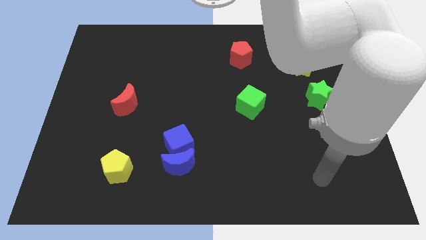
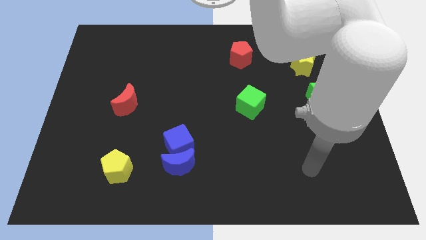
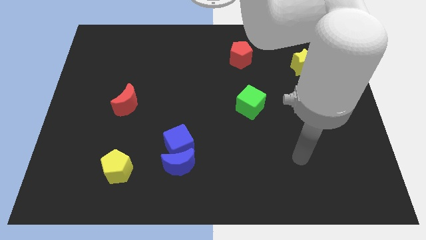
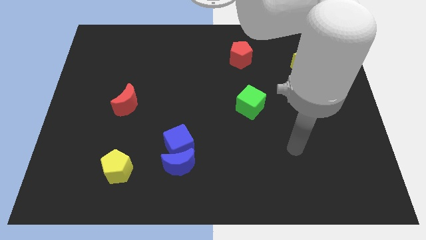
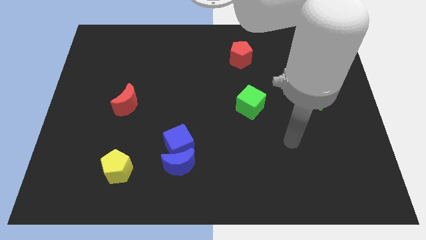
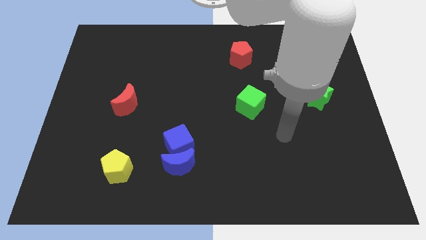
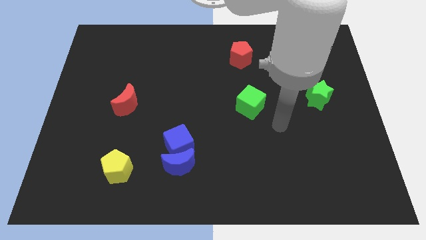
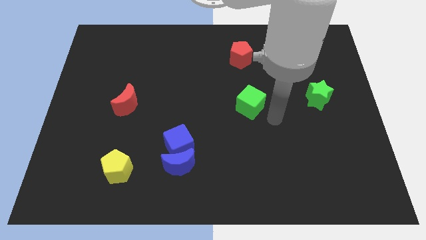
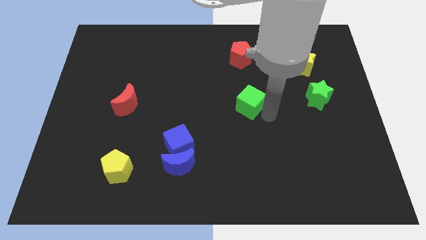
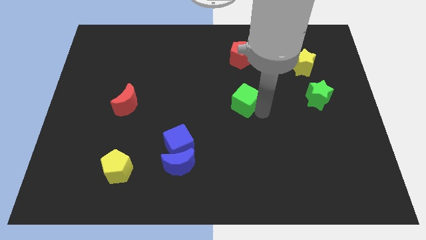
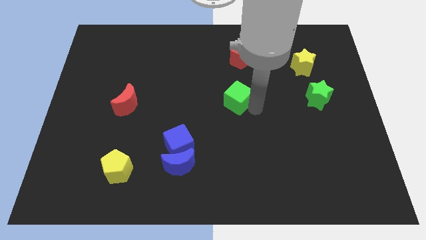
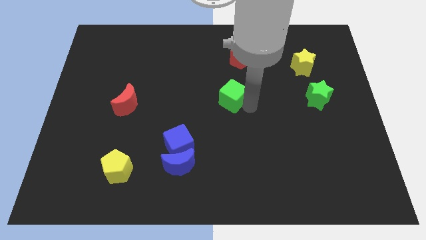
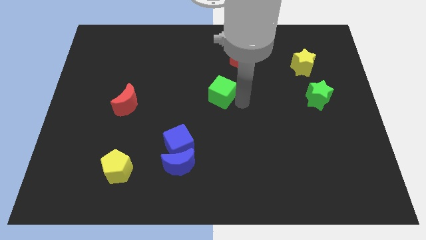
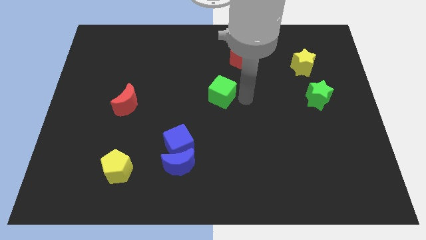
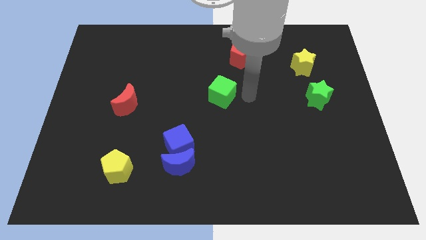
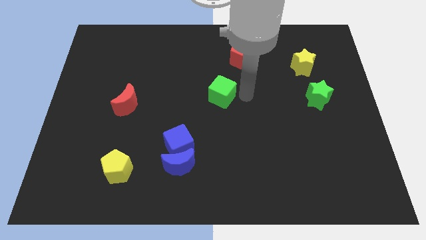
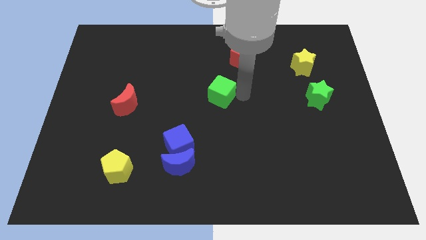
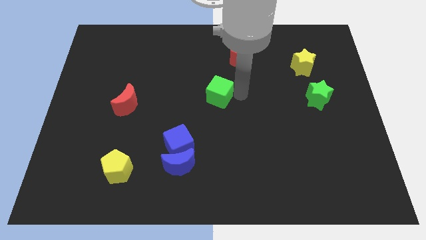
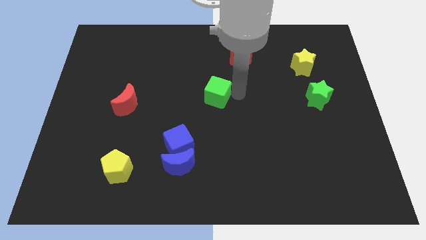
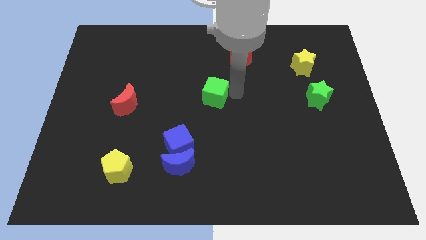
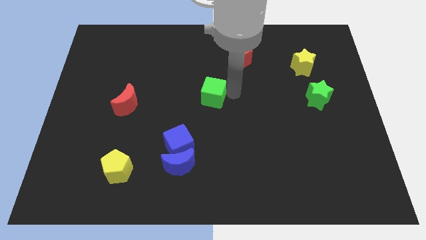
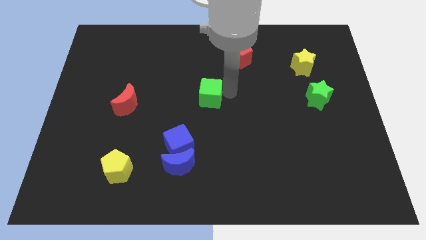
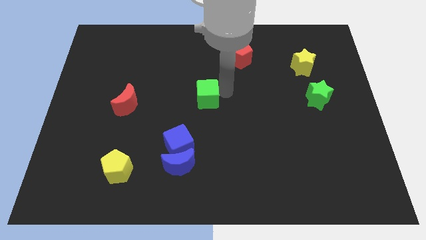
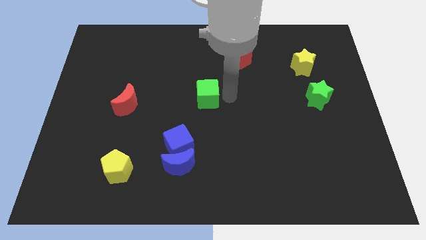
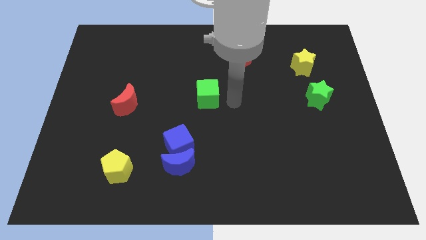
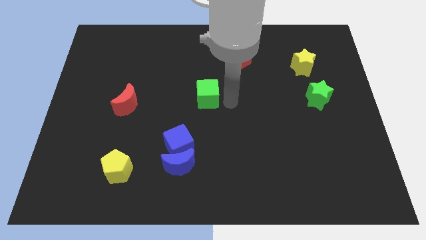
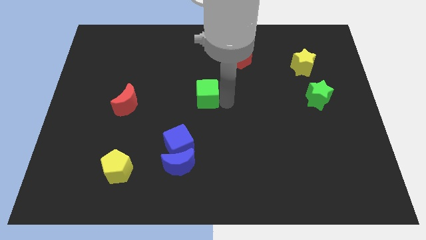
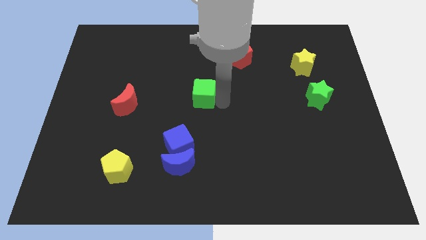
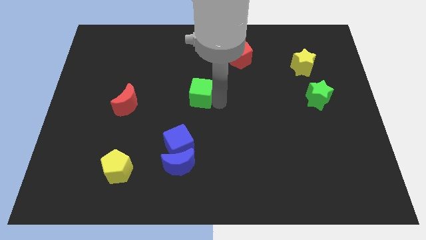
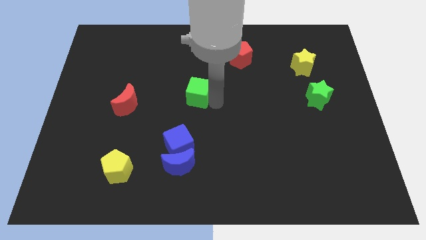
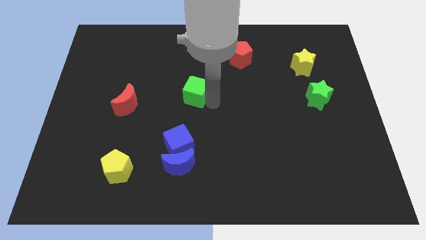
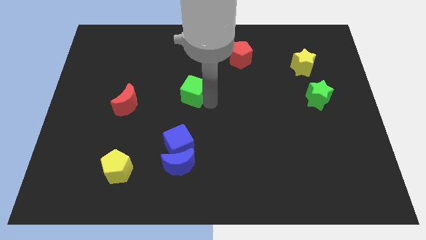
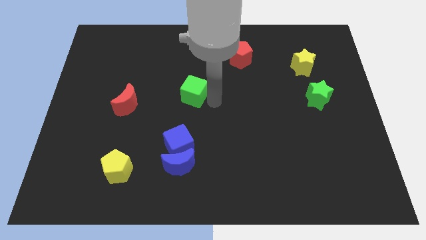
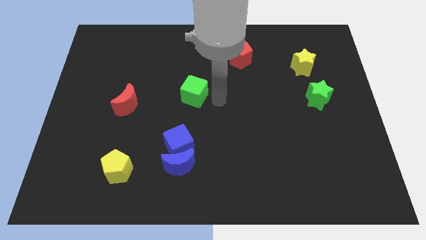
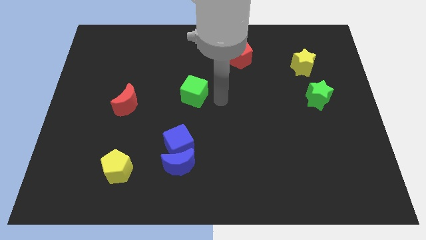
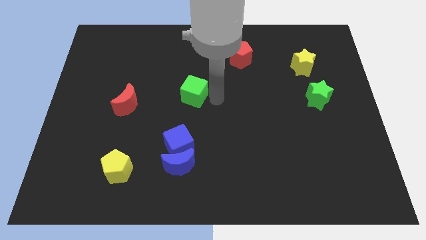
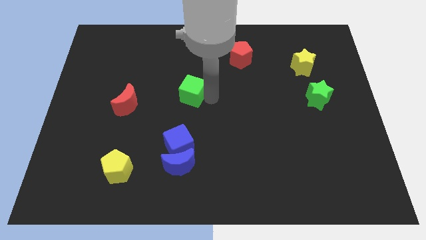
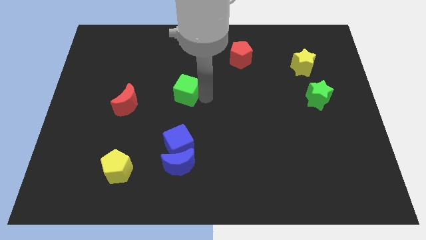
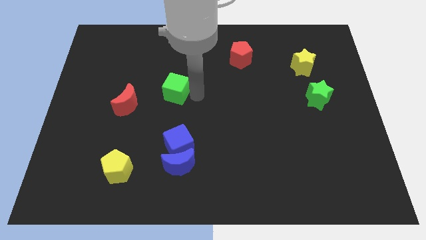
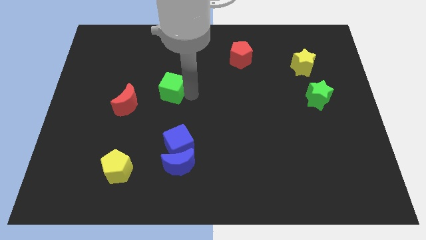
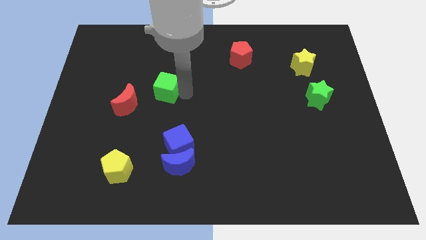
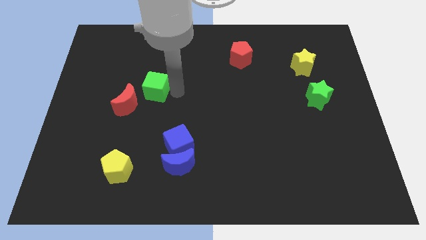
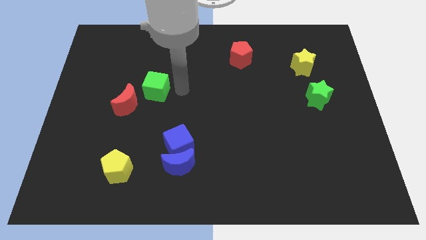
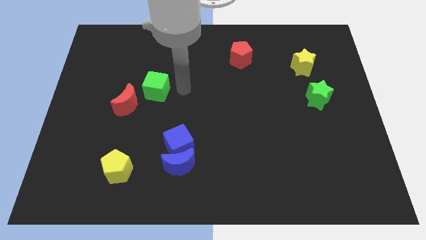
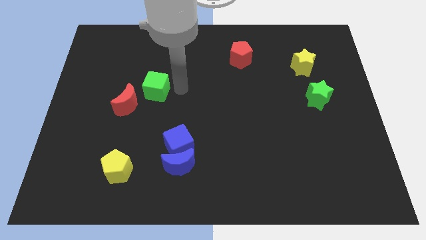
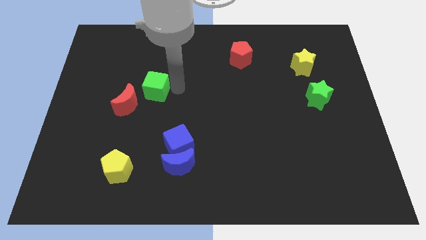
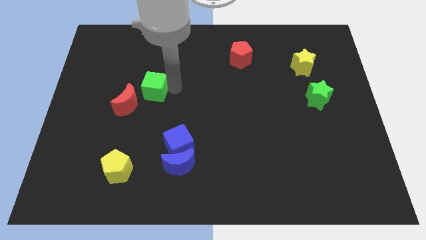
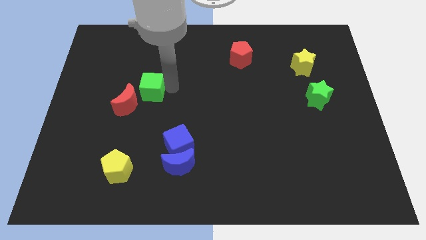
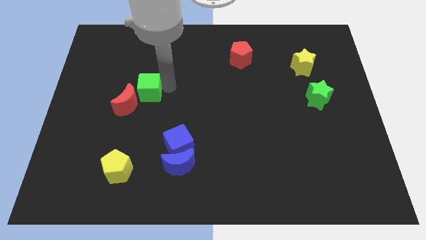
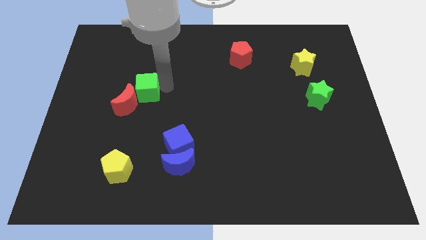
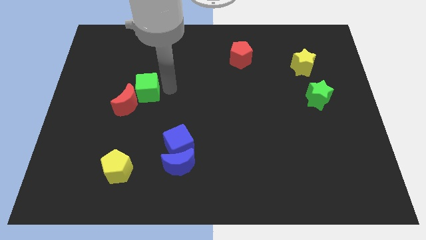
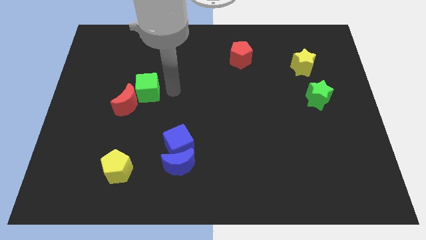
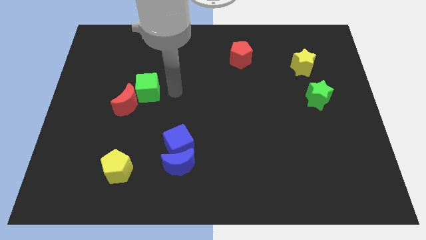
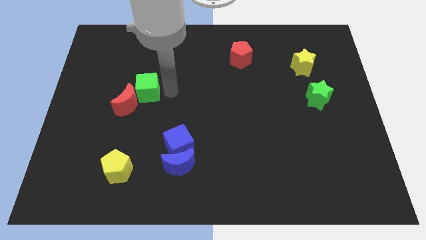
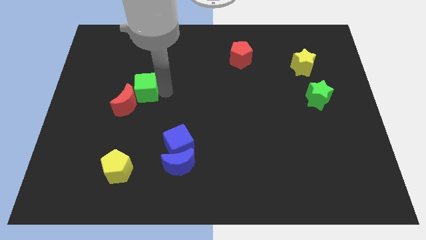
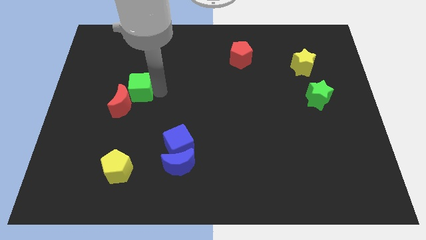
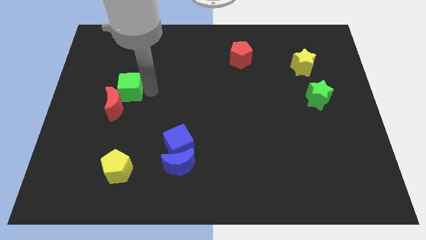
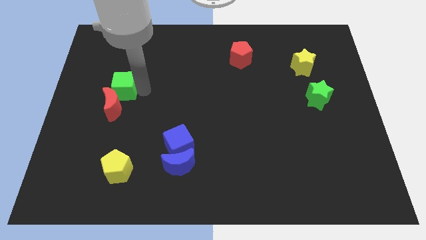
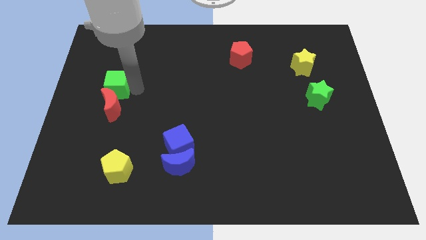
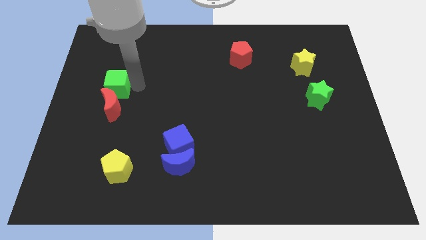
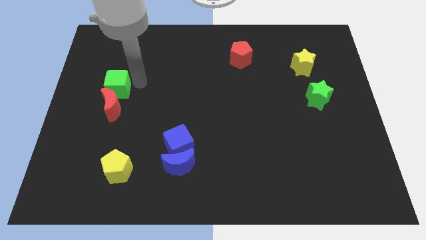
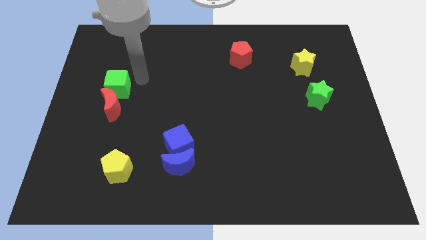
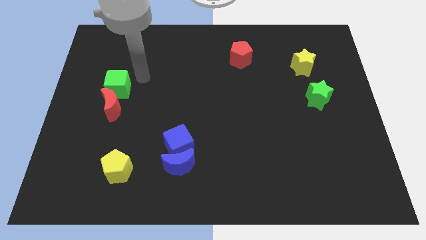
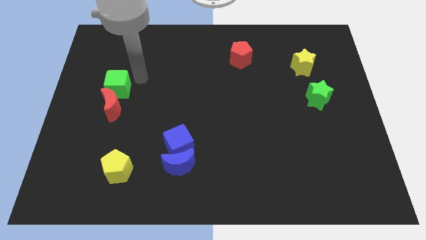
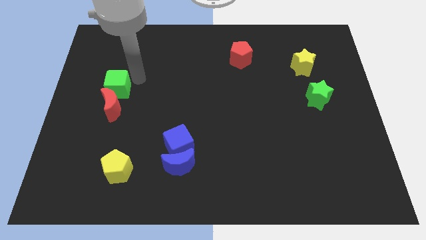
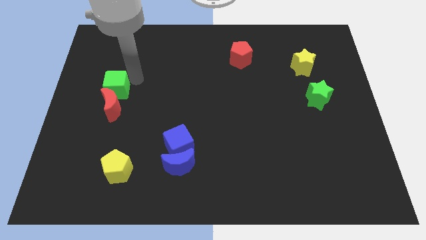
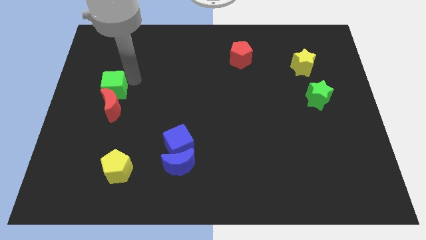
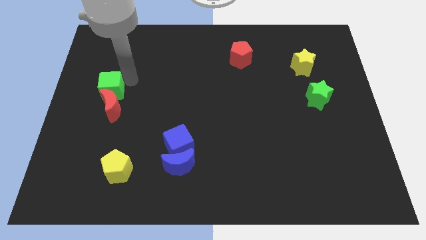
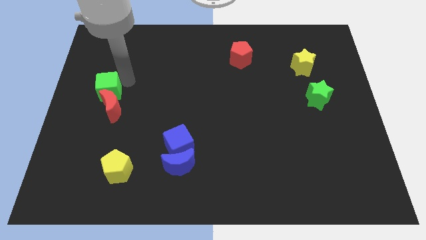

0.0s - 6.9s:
move the green cube to the left side
